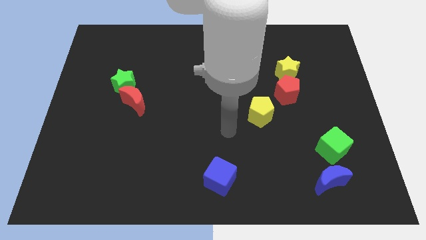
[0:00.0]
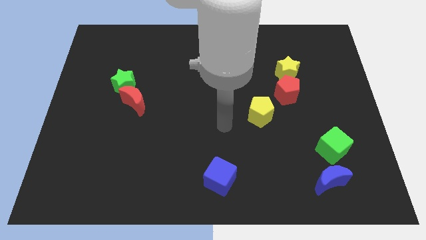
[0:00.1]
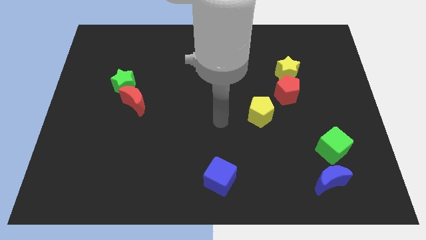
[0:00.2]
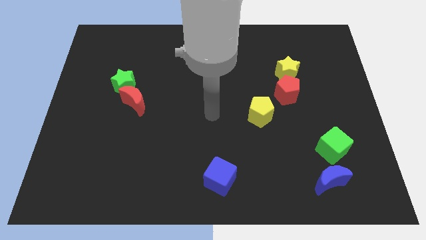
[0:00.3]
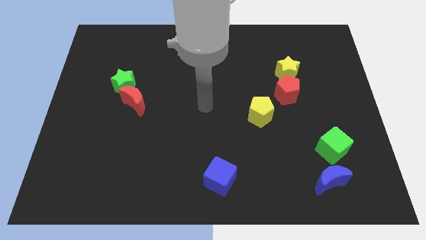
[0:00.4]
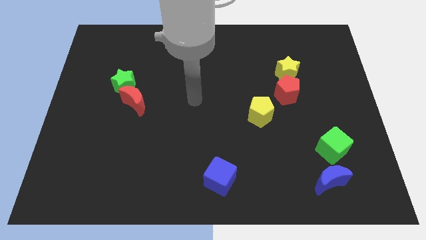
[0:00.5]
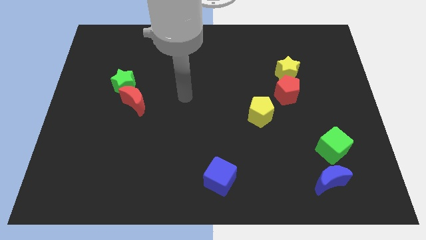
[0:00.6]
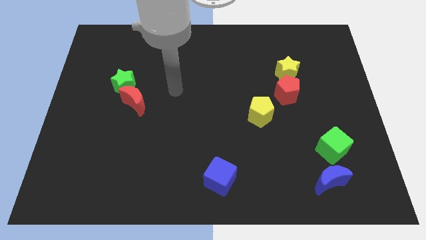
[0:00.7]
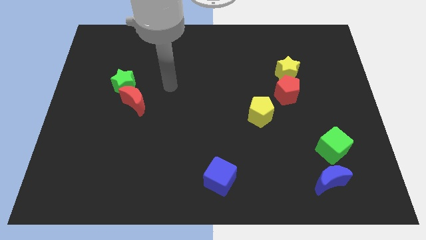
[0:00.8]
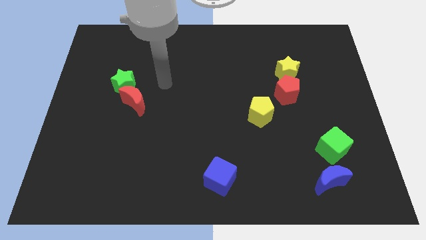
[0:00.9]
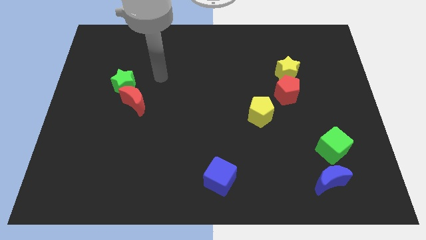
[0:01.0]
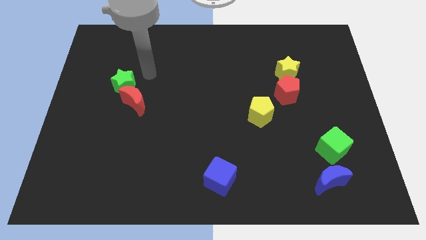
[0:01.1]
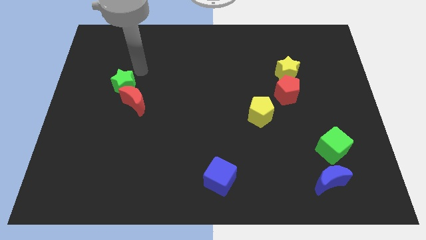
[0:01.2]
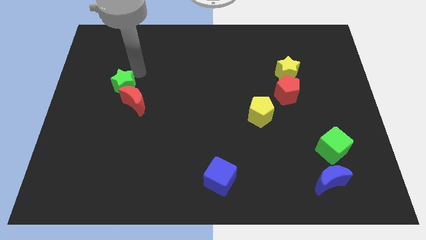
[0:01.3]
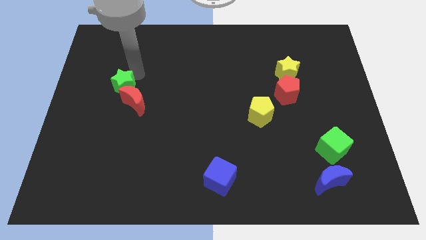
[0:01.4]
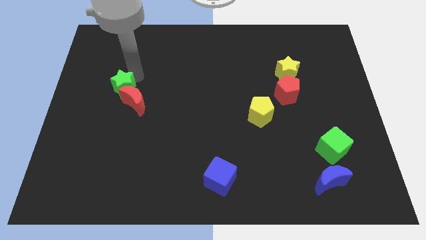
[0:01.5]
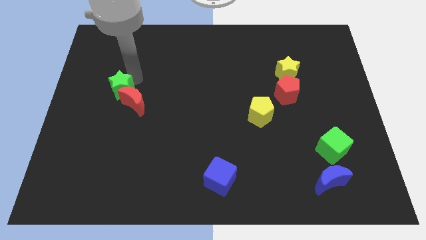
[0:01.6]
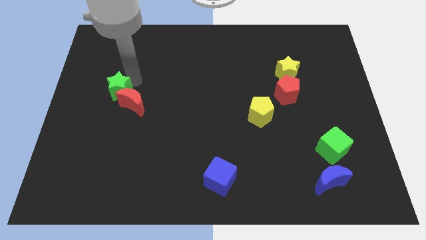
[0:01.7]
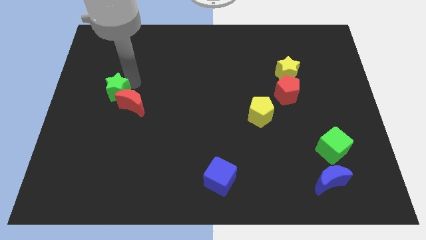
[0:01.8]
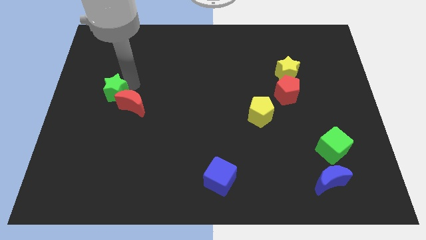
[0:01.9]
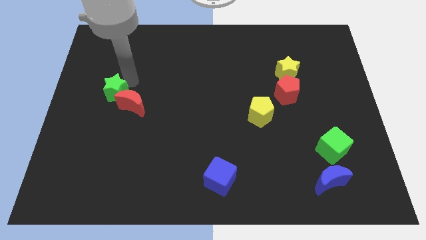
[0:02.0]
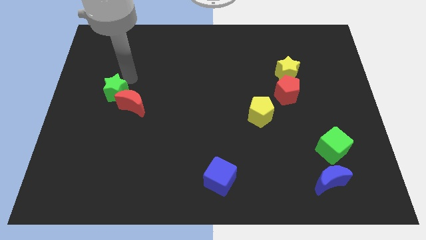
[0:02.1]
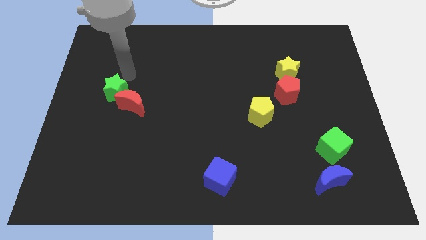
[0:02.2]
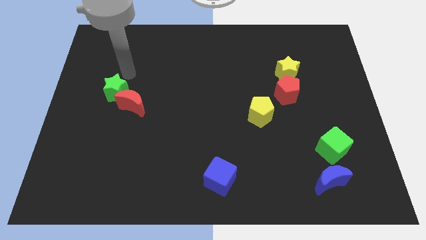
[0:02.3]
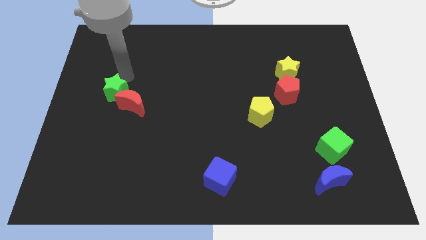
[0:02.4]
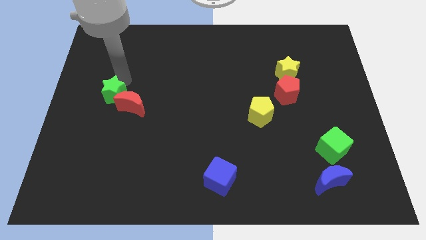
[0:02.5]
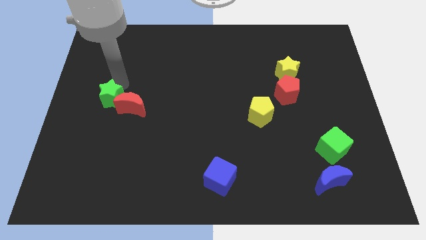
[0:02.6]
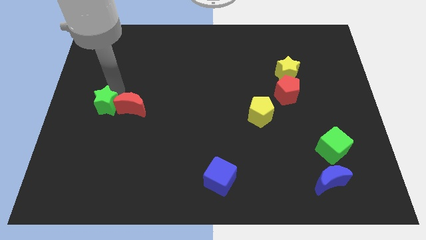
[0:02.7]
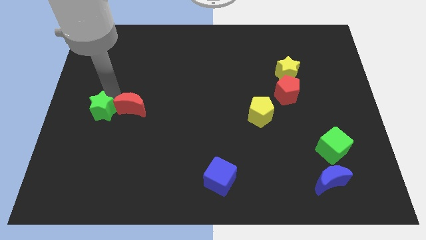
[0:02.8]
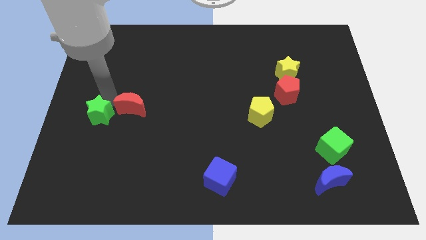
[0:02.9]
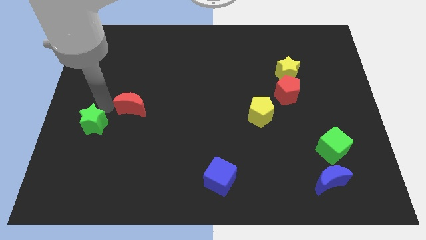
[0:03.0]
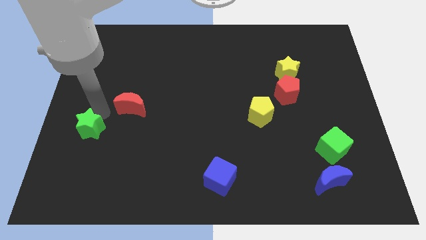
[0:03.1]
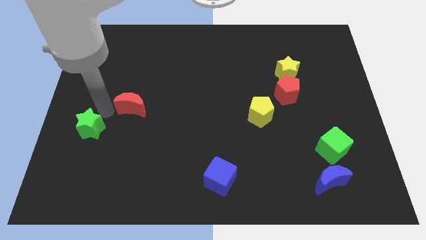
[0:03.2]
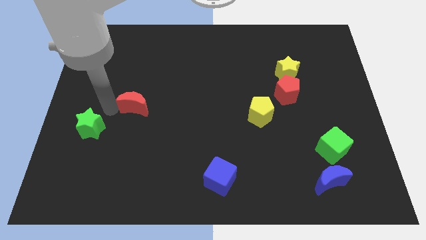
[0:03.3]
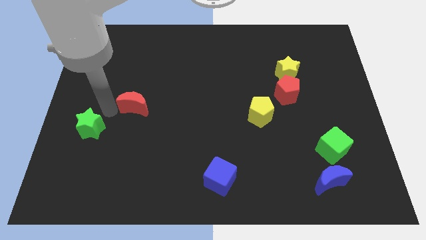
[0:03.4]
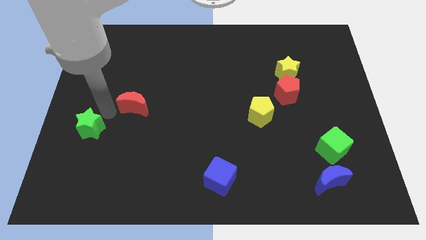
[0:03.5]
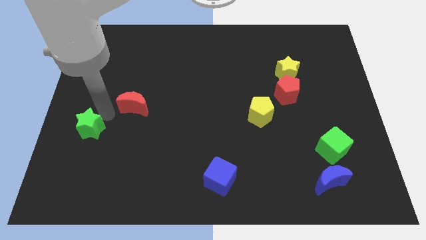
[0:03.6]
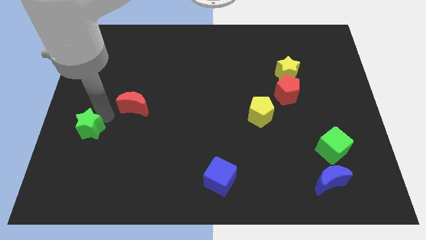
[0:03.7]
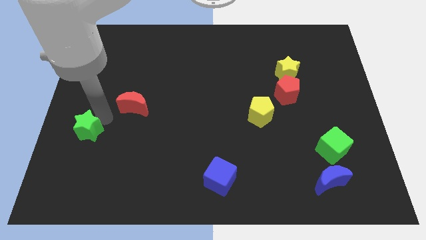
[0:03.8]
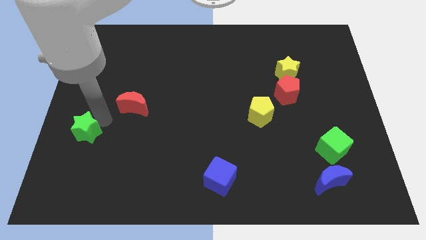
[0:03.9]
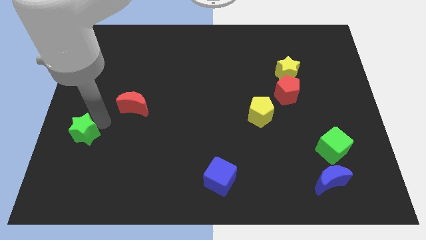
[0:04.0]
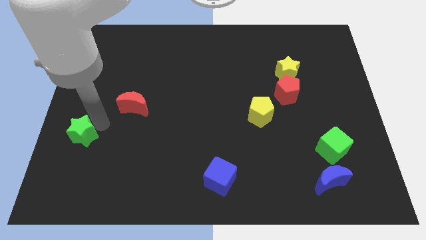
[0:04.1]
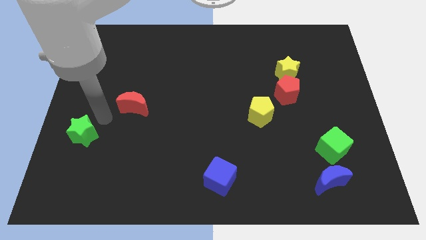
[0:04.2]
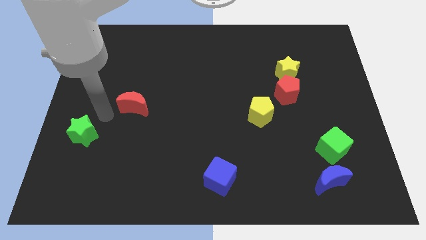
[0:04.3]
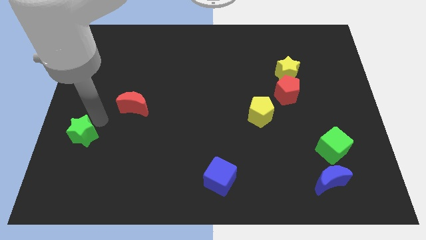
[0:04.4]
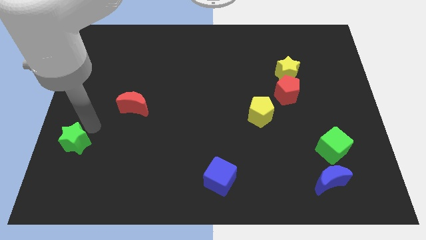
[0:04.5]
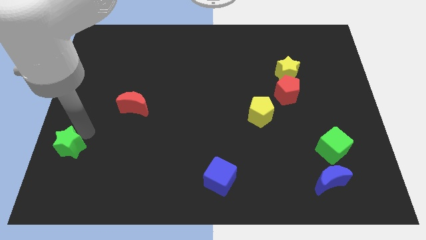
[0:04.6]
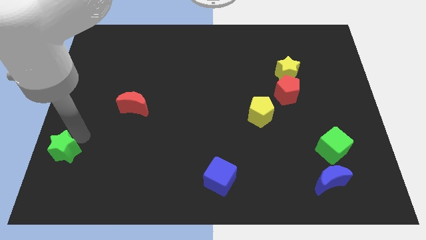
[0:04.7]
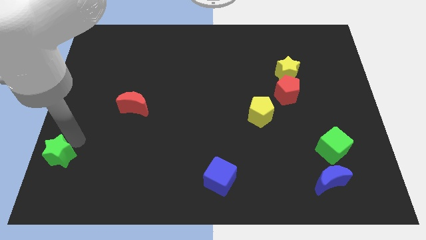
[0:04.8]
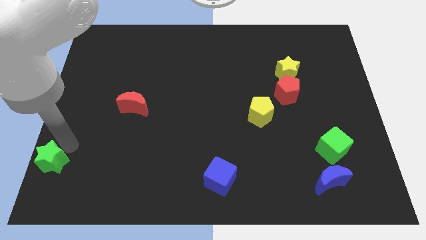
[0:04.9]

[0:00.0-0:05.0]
slide the green star to the lower left corner

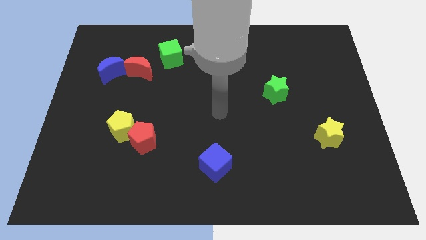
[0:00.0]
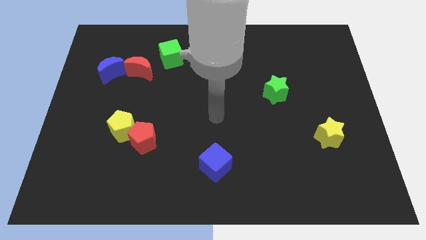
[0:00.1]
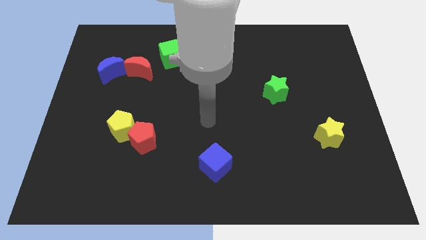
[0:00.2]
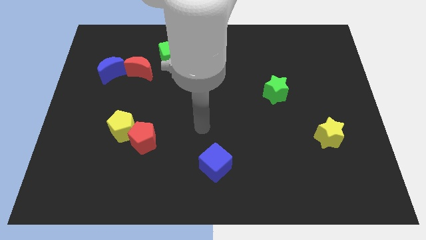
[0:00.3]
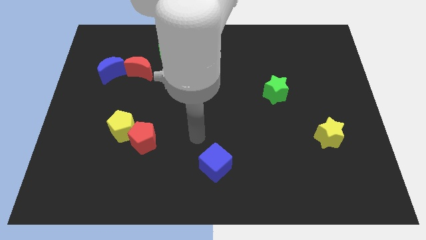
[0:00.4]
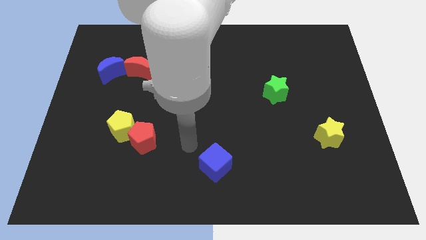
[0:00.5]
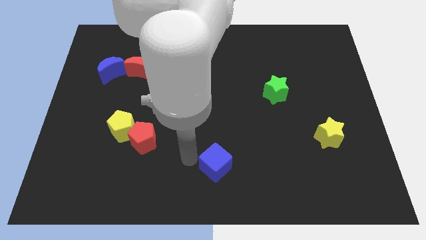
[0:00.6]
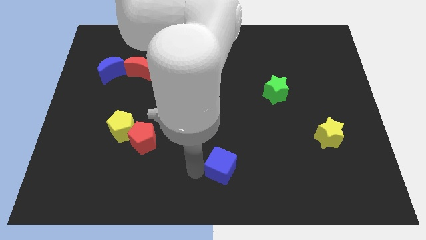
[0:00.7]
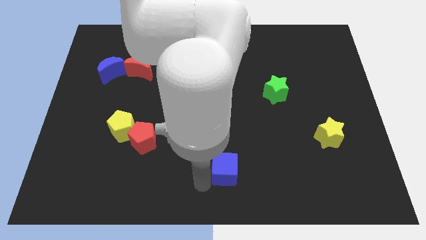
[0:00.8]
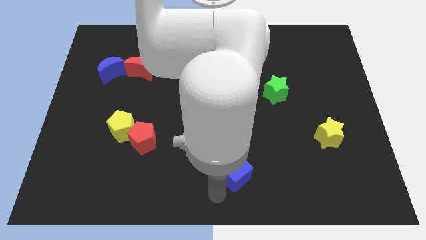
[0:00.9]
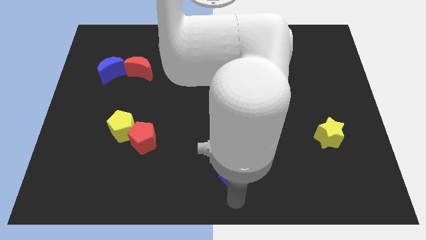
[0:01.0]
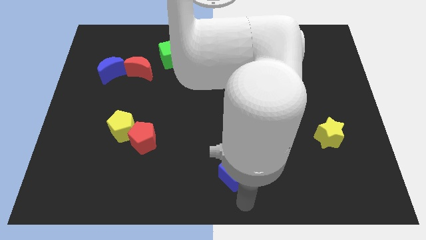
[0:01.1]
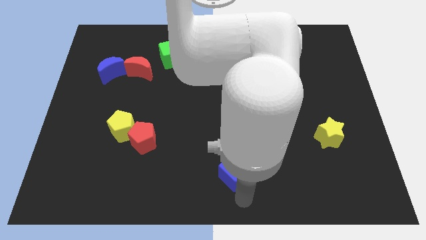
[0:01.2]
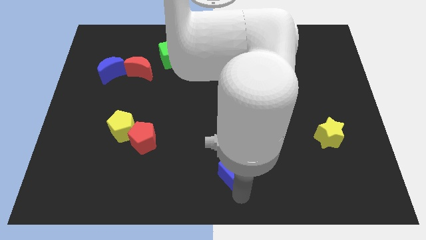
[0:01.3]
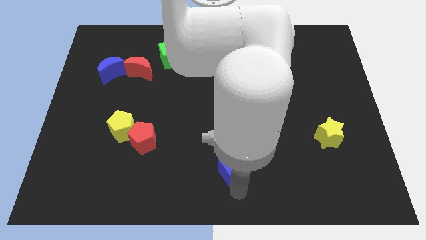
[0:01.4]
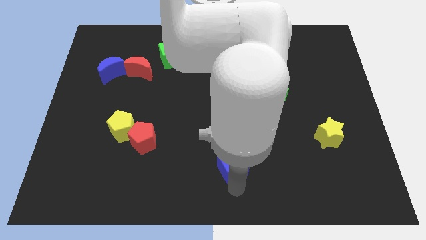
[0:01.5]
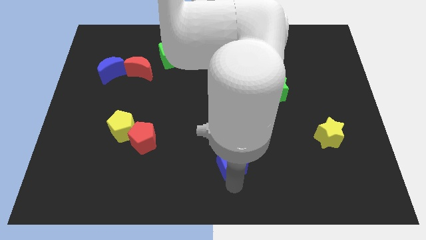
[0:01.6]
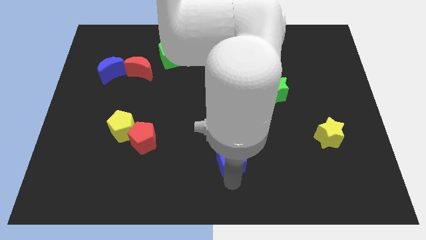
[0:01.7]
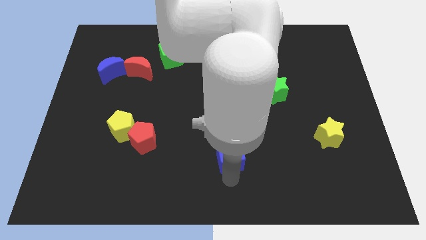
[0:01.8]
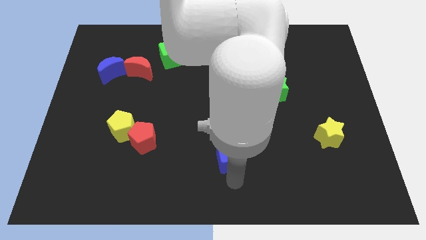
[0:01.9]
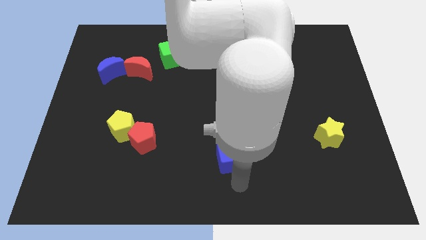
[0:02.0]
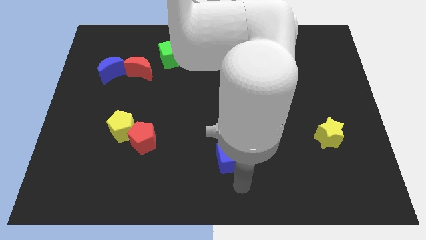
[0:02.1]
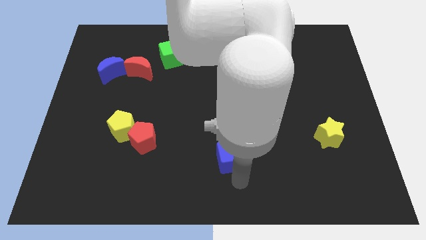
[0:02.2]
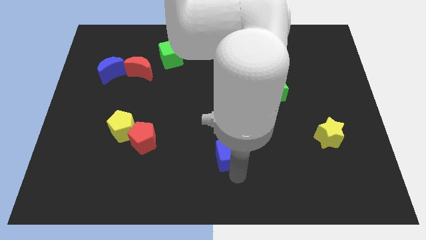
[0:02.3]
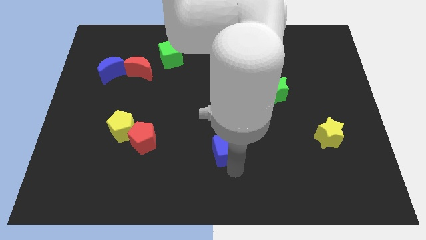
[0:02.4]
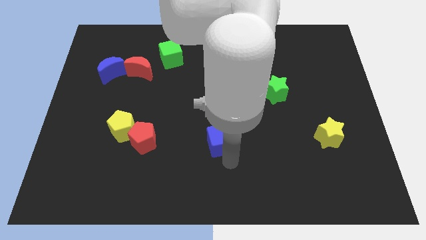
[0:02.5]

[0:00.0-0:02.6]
slide the blue cube to the middle of the board
